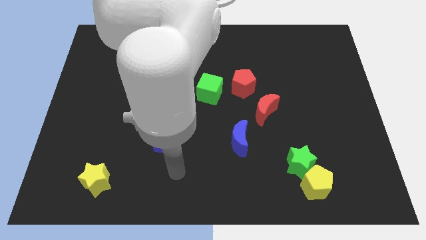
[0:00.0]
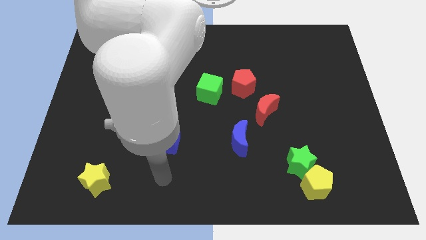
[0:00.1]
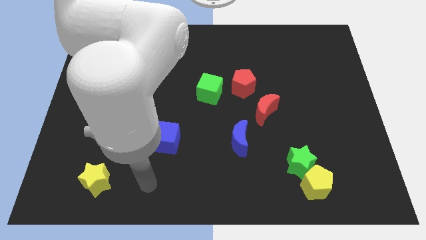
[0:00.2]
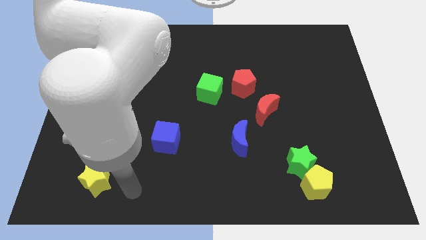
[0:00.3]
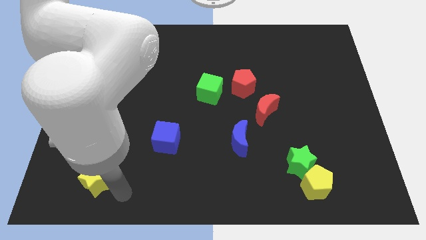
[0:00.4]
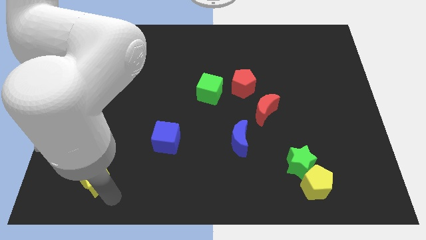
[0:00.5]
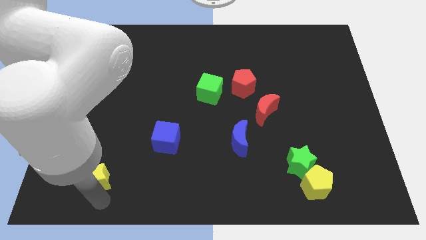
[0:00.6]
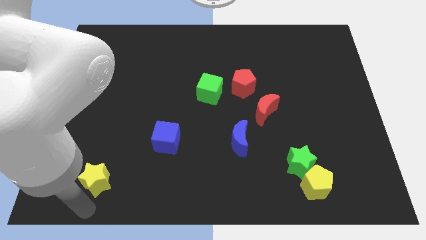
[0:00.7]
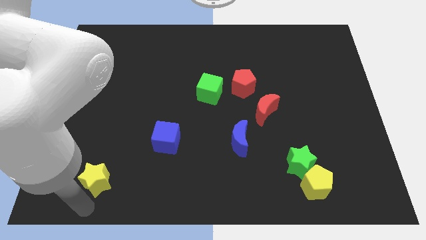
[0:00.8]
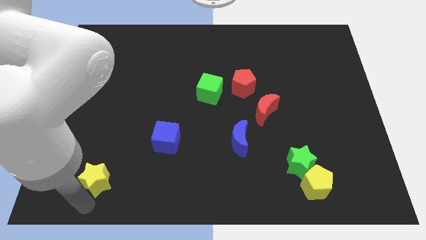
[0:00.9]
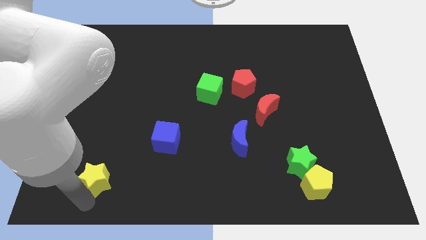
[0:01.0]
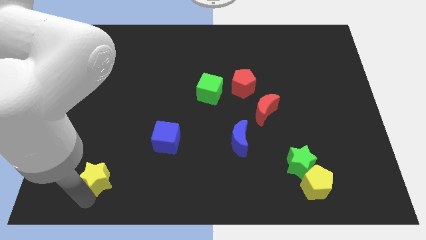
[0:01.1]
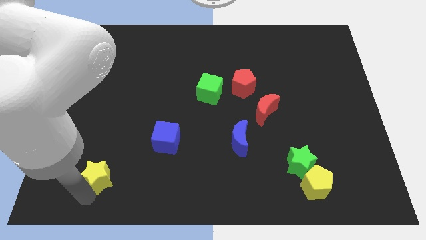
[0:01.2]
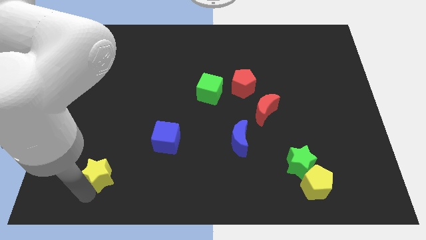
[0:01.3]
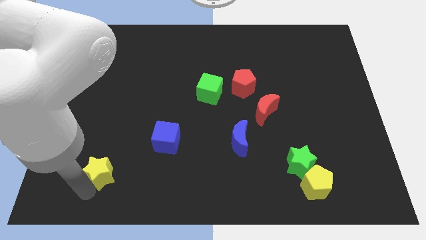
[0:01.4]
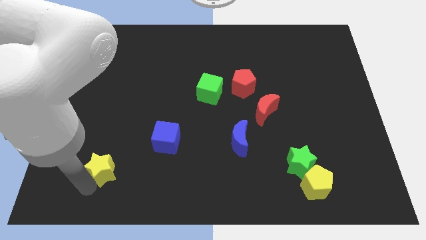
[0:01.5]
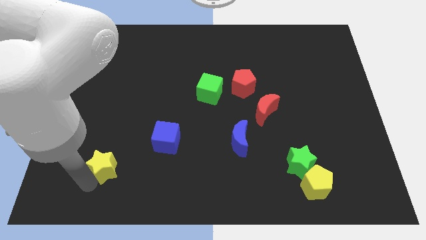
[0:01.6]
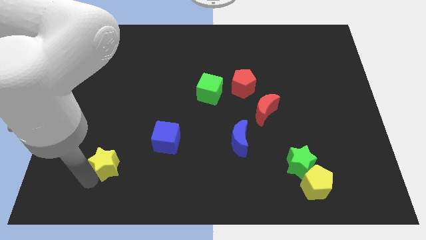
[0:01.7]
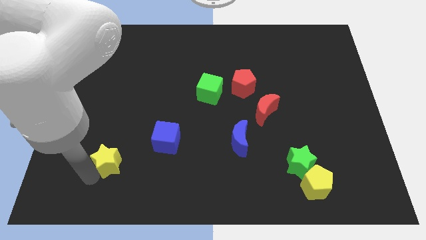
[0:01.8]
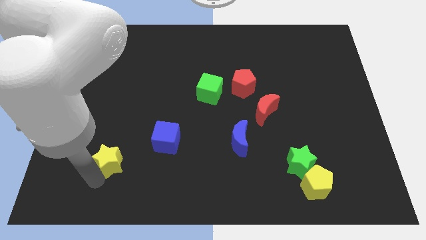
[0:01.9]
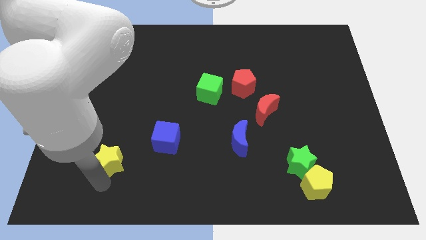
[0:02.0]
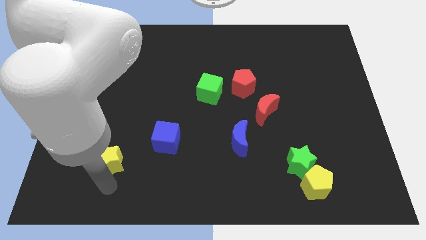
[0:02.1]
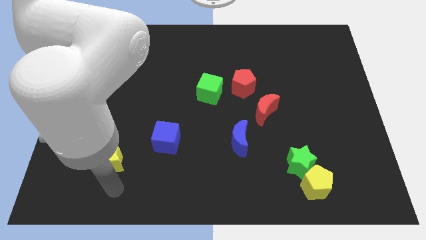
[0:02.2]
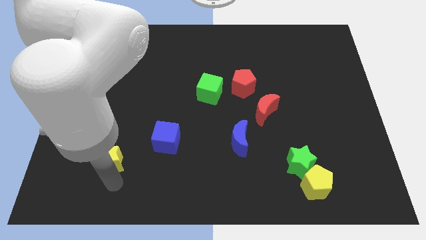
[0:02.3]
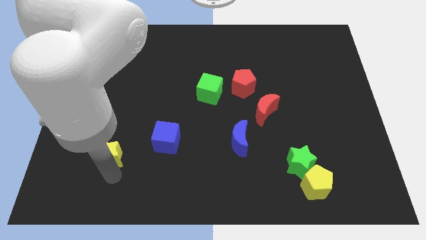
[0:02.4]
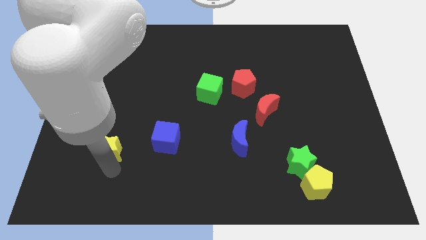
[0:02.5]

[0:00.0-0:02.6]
slightly move the yellow star up

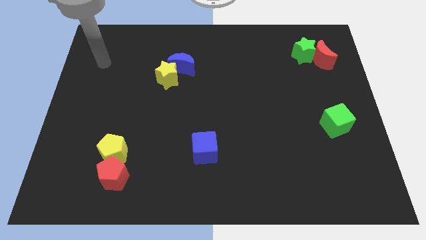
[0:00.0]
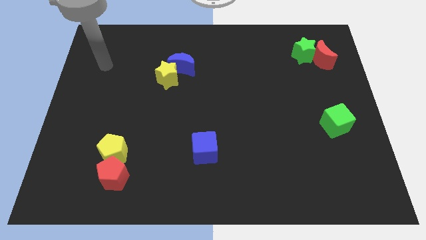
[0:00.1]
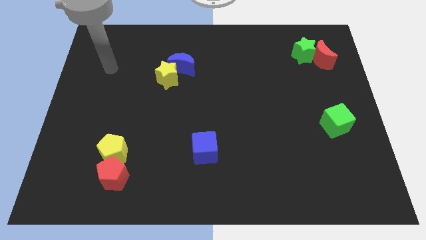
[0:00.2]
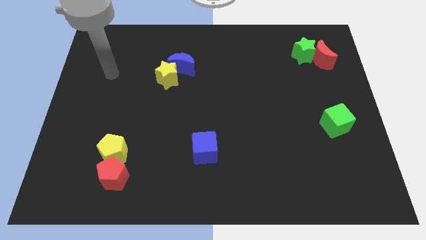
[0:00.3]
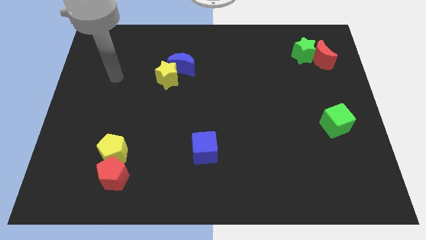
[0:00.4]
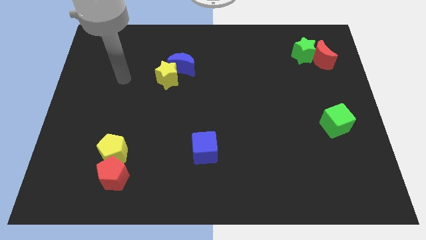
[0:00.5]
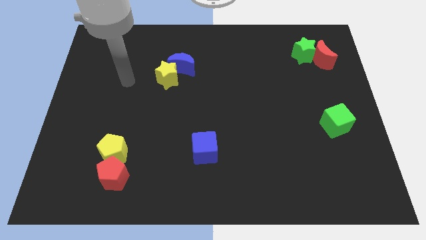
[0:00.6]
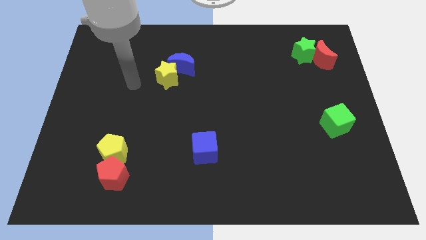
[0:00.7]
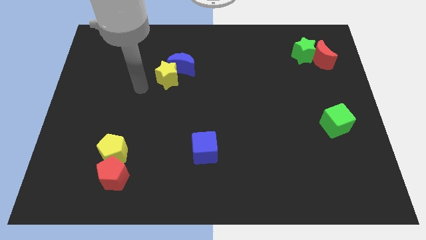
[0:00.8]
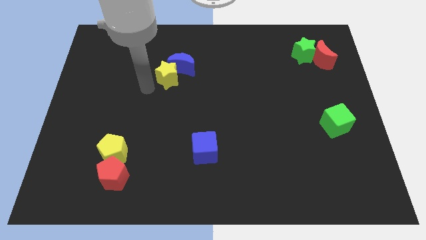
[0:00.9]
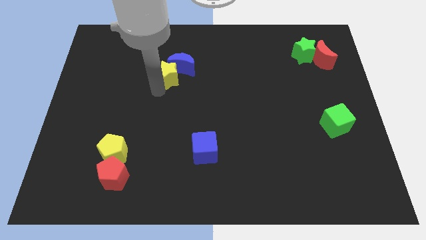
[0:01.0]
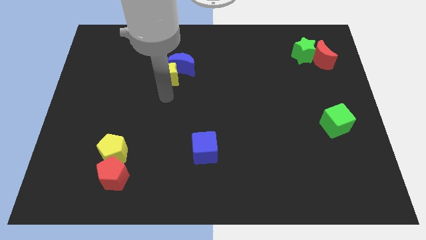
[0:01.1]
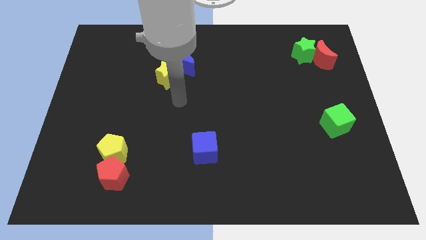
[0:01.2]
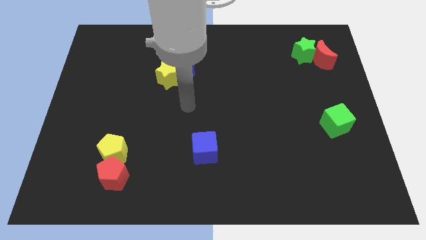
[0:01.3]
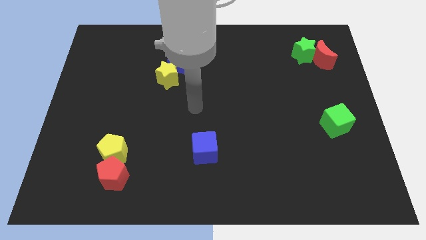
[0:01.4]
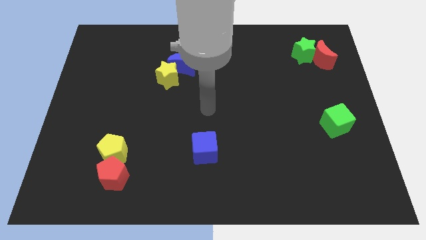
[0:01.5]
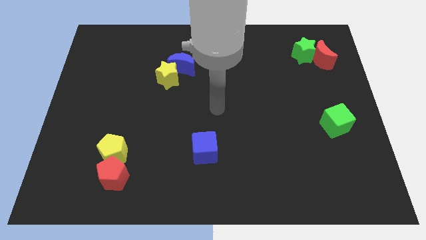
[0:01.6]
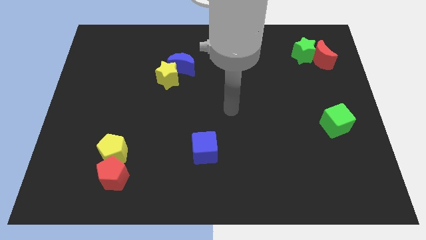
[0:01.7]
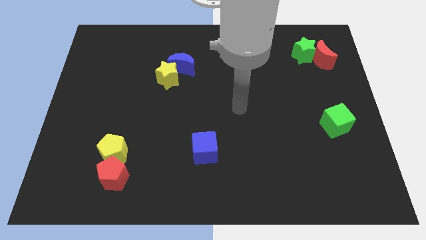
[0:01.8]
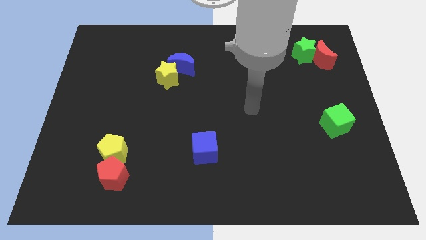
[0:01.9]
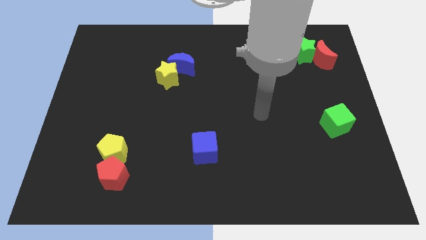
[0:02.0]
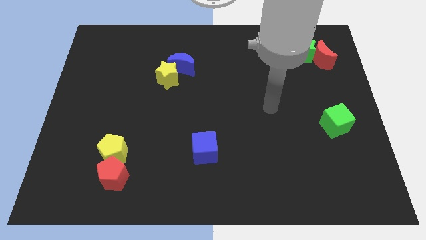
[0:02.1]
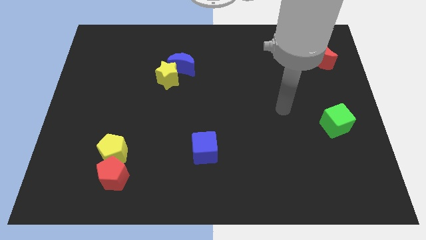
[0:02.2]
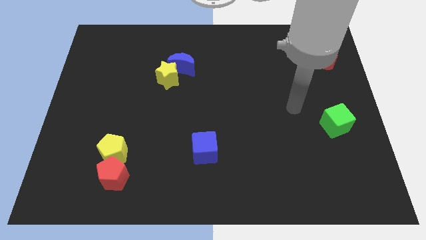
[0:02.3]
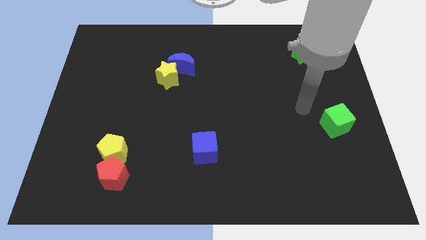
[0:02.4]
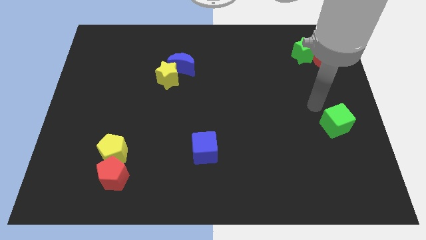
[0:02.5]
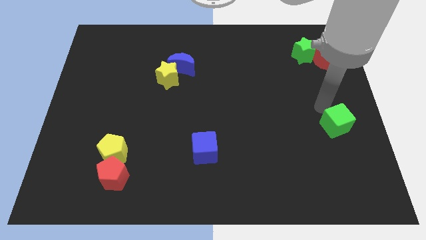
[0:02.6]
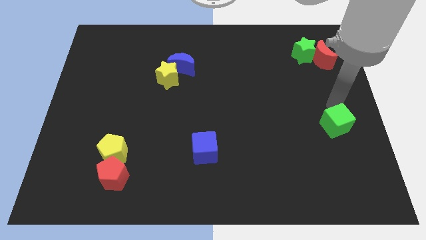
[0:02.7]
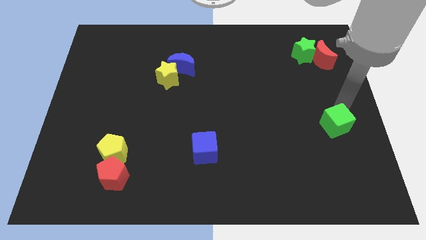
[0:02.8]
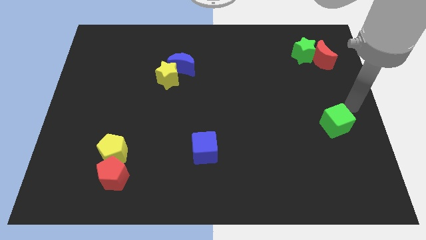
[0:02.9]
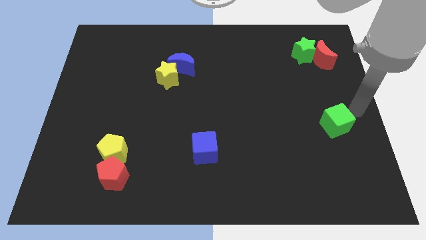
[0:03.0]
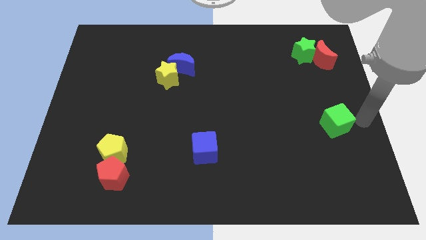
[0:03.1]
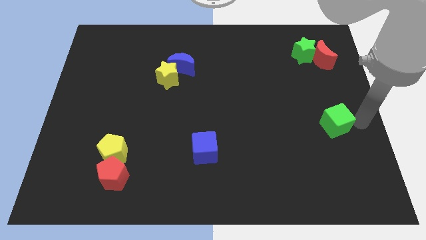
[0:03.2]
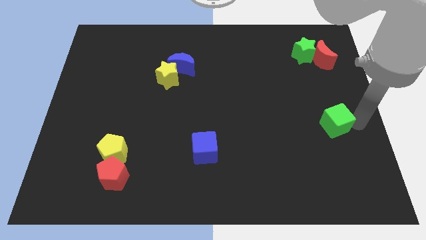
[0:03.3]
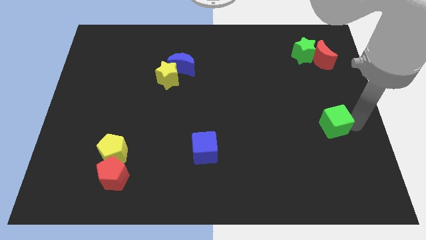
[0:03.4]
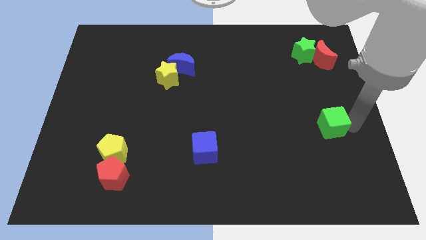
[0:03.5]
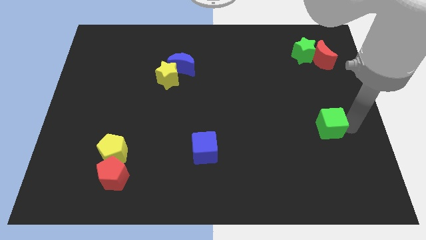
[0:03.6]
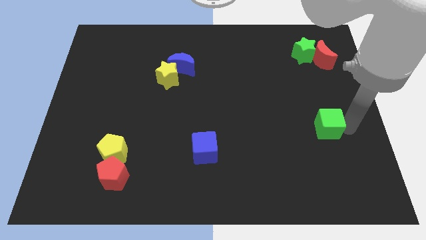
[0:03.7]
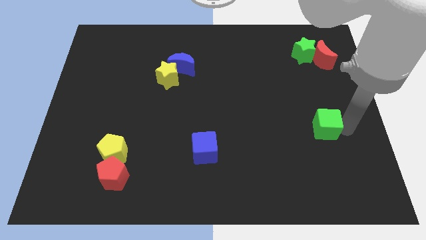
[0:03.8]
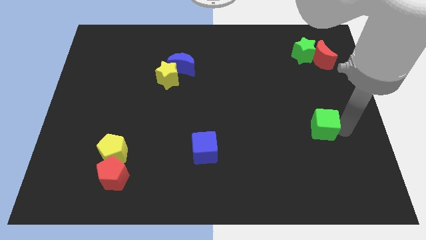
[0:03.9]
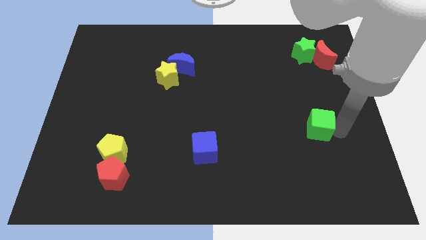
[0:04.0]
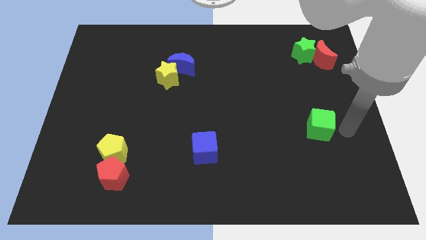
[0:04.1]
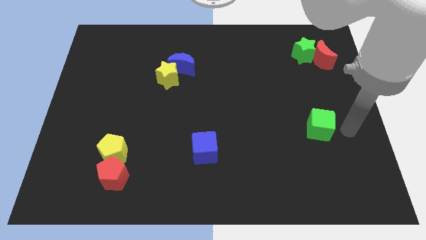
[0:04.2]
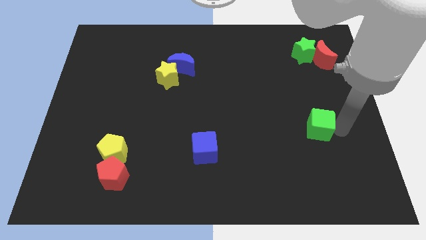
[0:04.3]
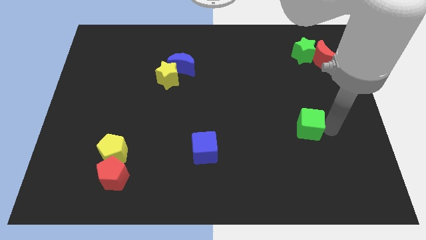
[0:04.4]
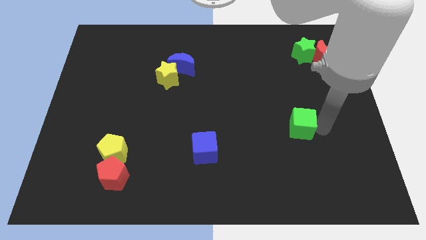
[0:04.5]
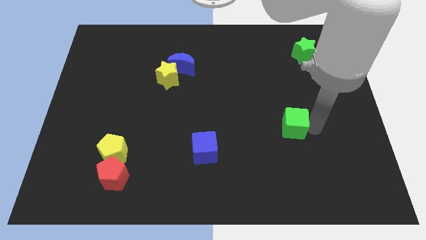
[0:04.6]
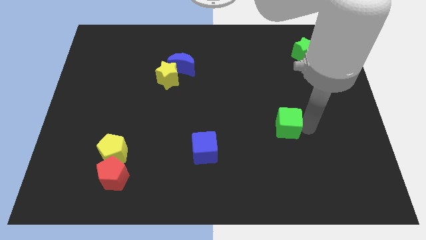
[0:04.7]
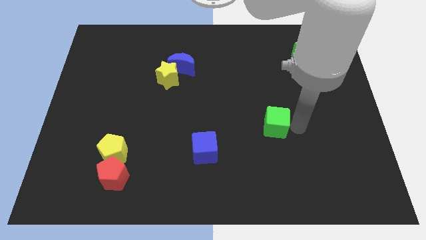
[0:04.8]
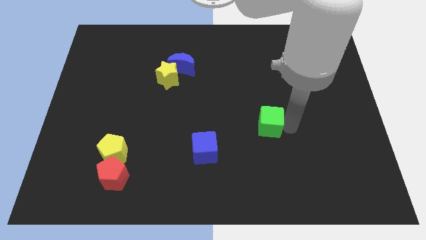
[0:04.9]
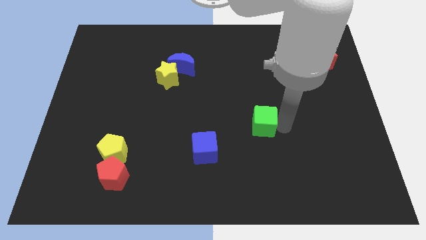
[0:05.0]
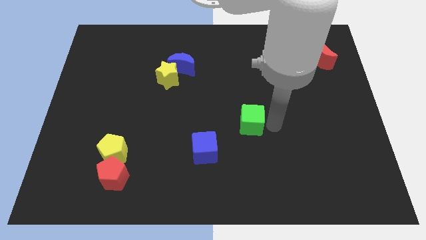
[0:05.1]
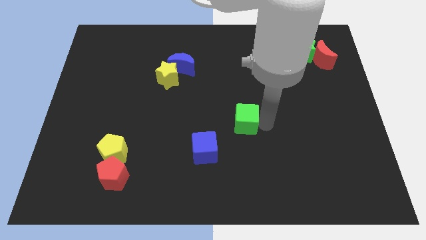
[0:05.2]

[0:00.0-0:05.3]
push the green cube left

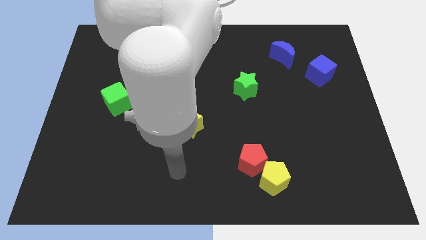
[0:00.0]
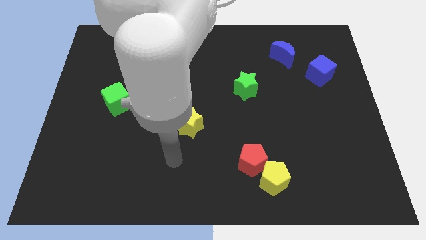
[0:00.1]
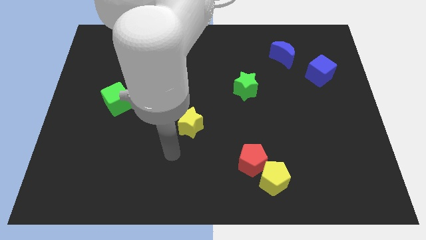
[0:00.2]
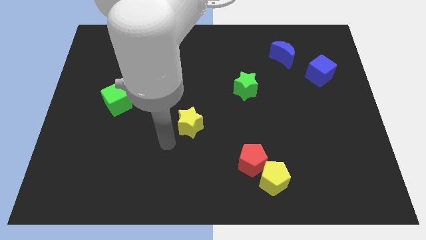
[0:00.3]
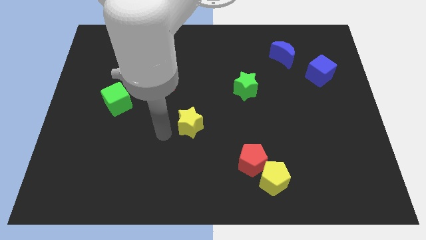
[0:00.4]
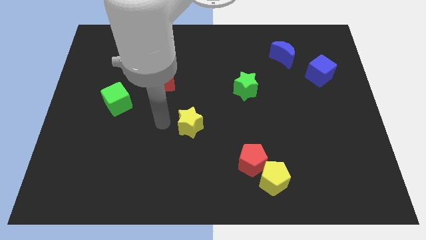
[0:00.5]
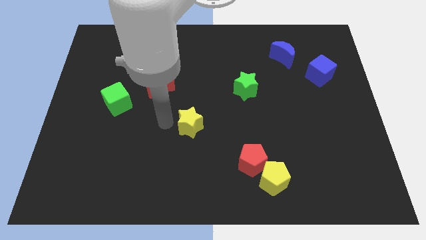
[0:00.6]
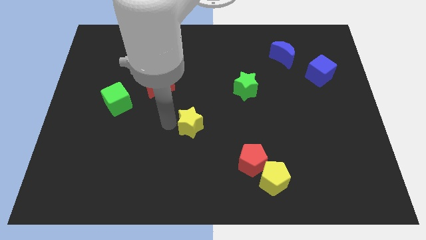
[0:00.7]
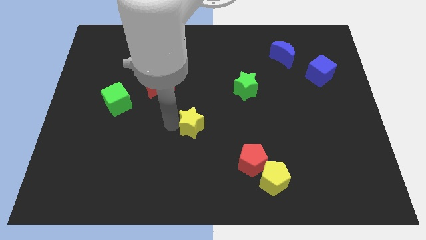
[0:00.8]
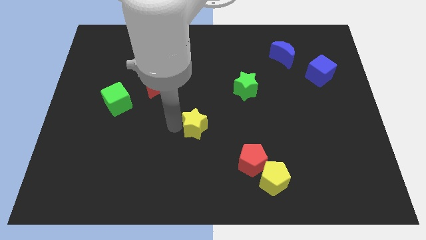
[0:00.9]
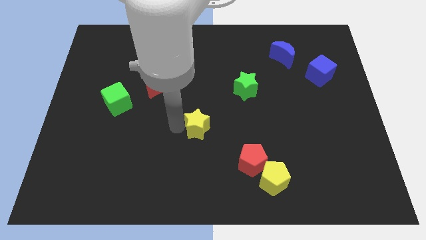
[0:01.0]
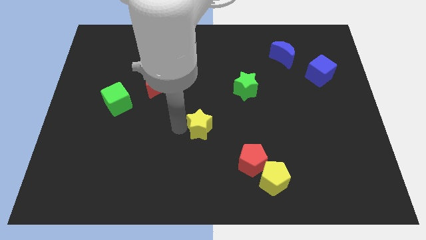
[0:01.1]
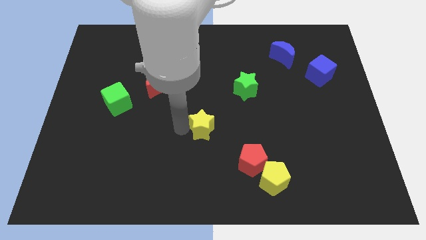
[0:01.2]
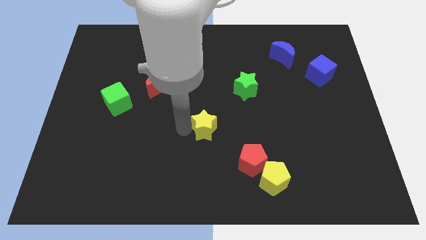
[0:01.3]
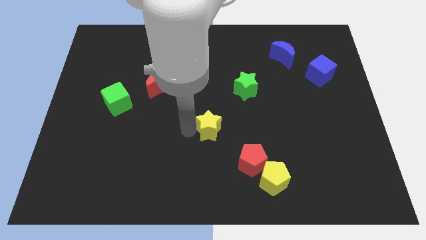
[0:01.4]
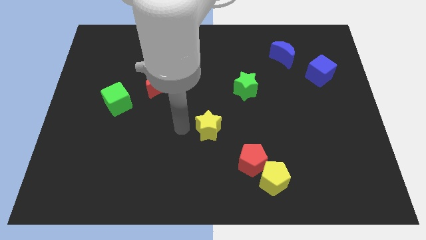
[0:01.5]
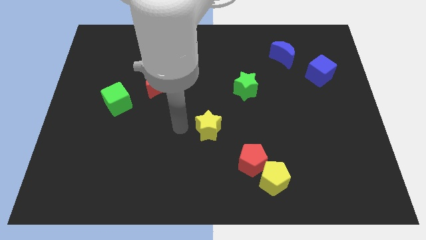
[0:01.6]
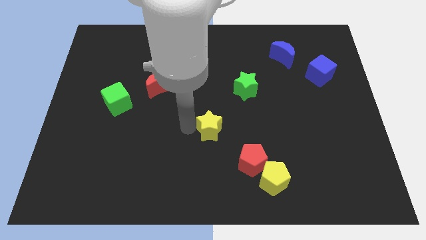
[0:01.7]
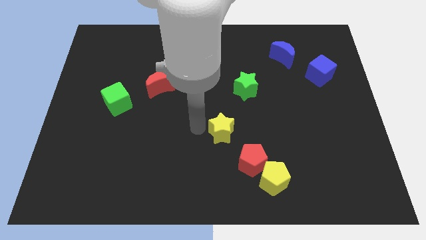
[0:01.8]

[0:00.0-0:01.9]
push the yellow star somewhat right
